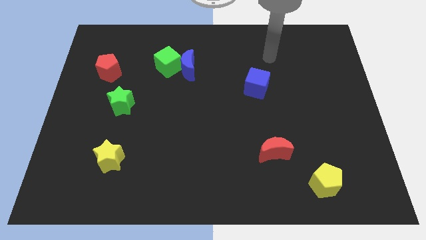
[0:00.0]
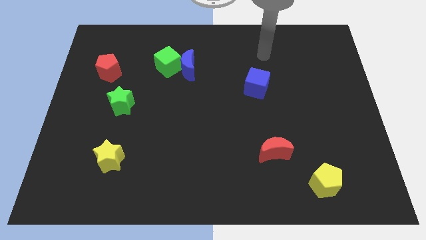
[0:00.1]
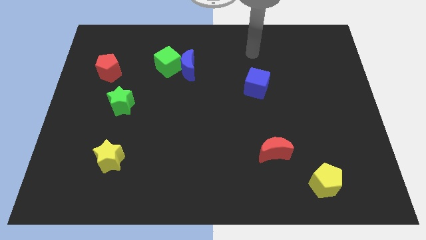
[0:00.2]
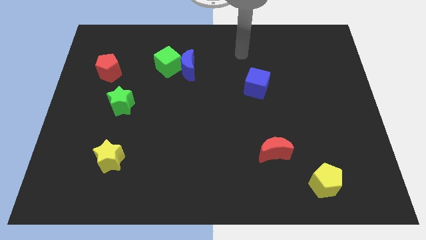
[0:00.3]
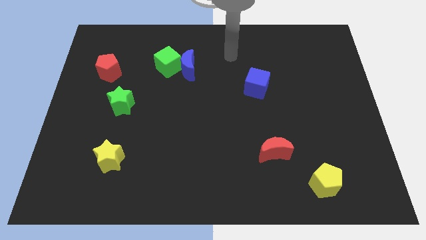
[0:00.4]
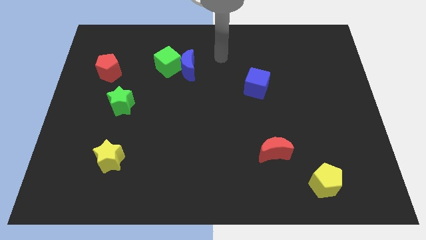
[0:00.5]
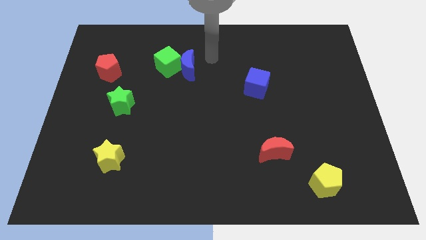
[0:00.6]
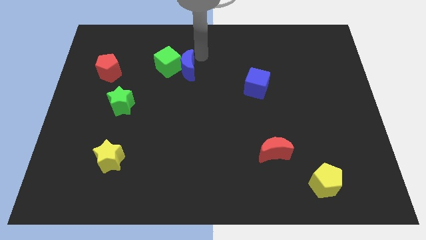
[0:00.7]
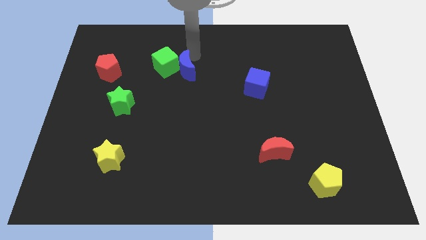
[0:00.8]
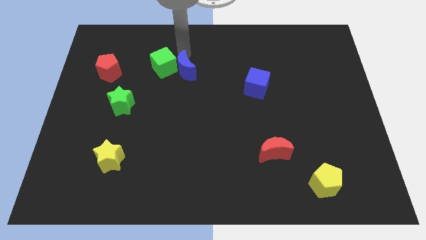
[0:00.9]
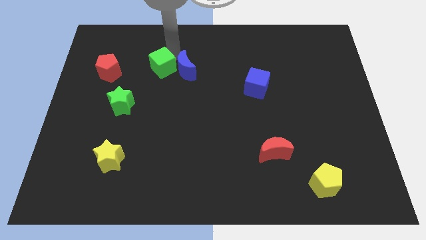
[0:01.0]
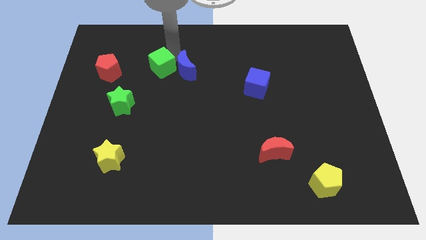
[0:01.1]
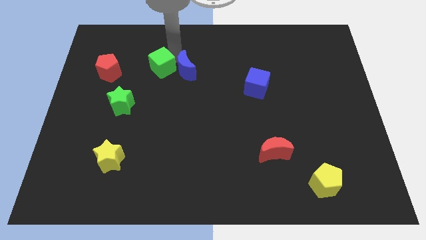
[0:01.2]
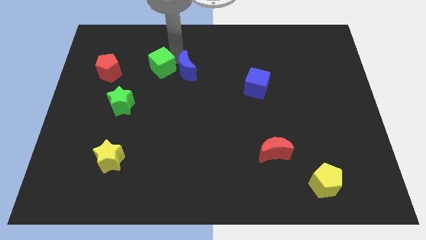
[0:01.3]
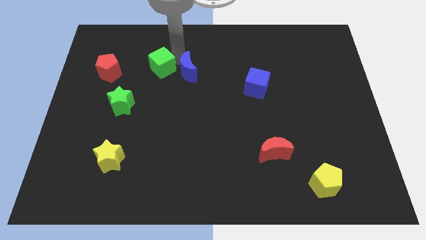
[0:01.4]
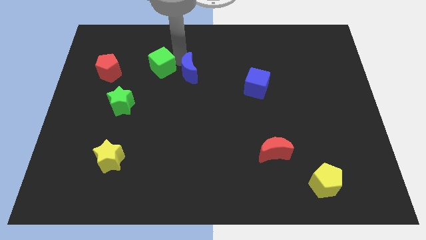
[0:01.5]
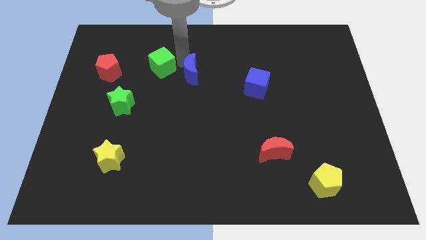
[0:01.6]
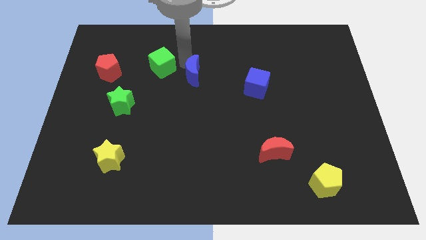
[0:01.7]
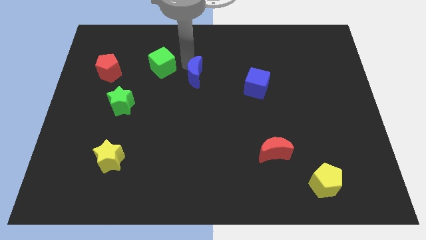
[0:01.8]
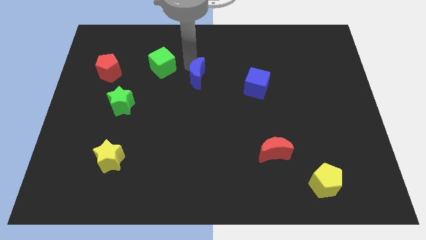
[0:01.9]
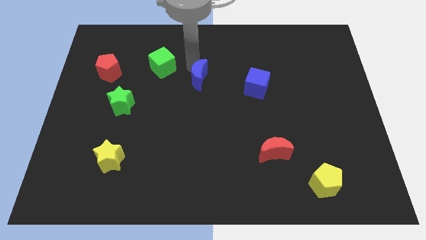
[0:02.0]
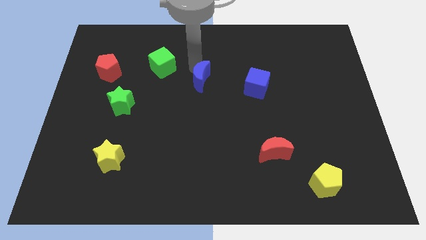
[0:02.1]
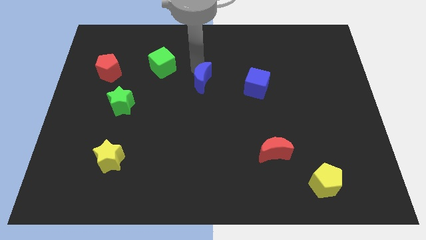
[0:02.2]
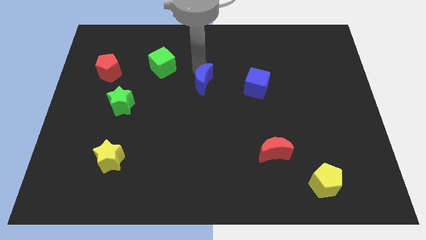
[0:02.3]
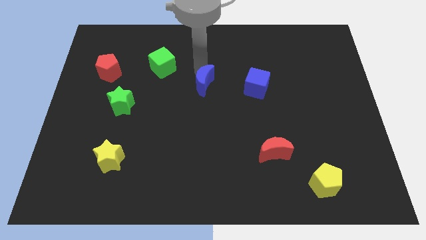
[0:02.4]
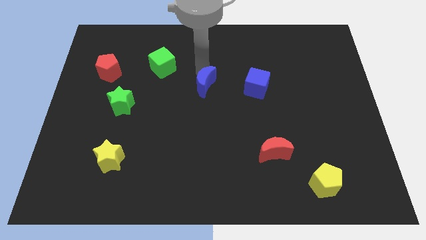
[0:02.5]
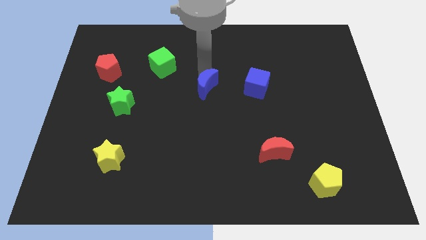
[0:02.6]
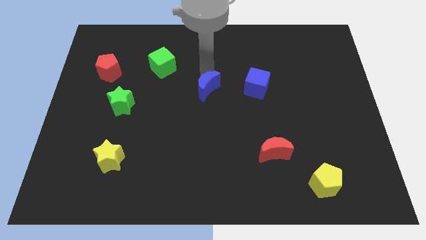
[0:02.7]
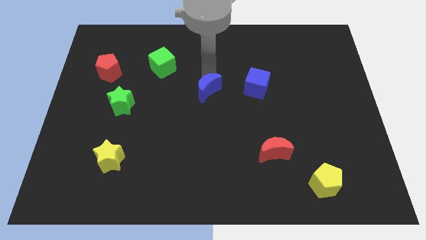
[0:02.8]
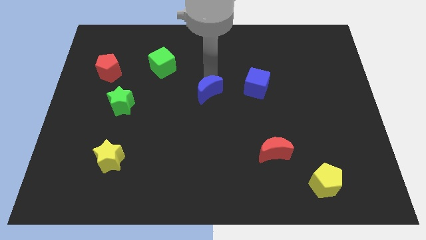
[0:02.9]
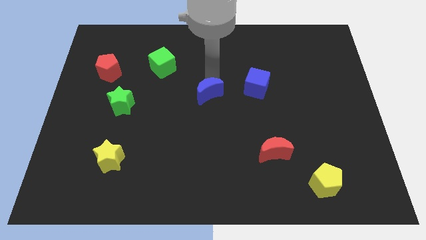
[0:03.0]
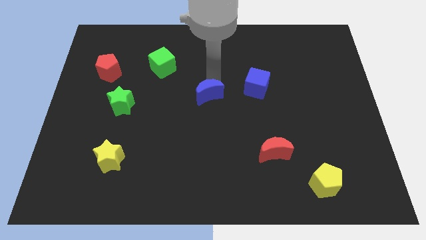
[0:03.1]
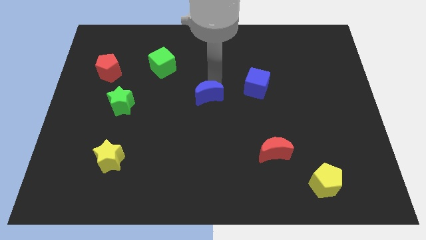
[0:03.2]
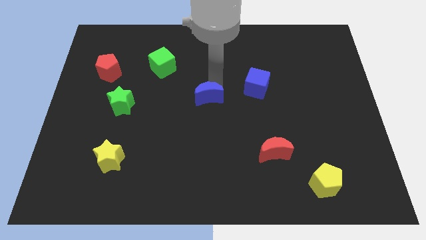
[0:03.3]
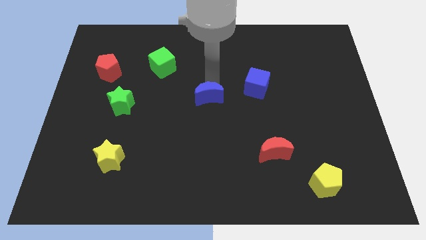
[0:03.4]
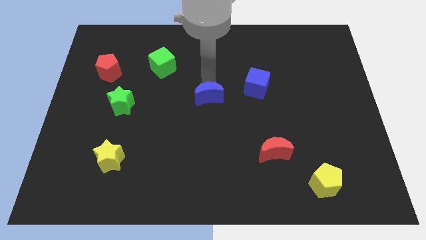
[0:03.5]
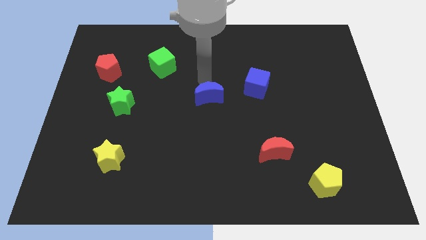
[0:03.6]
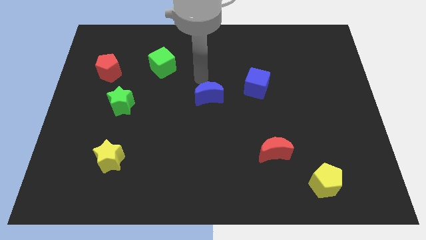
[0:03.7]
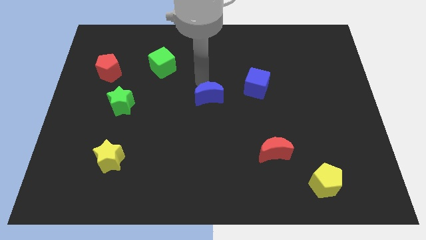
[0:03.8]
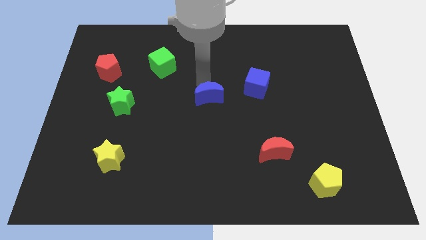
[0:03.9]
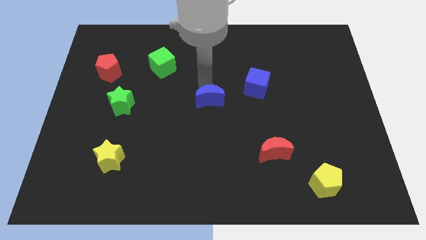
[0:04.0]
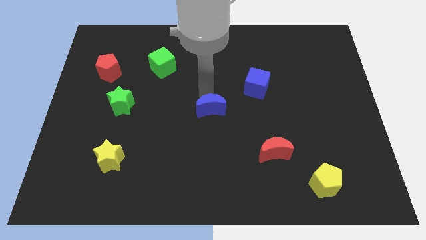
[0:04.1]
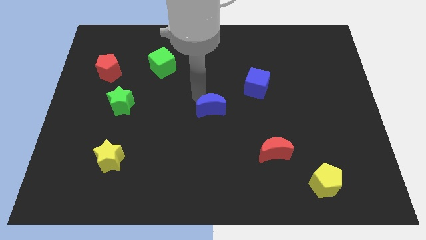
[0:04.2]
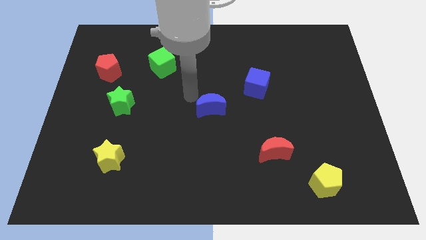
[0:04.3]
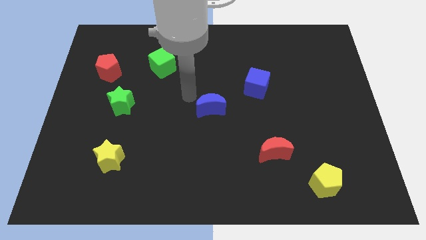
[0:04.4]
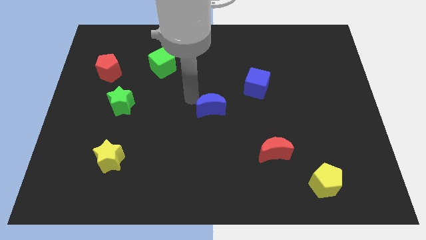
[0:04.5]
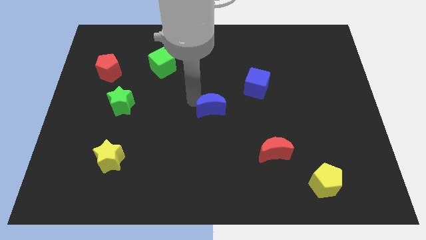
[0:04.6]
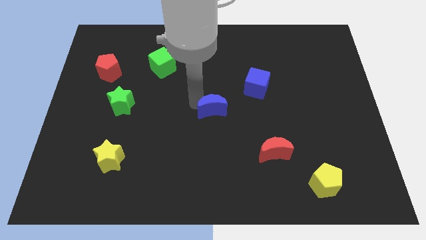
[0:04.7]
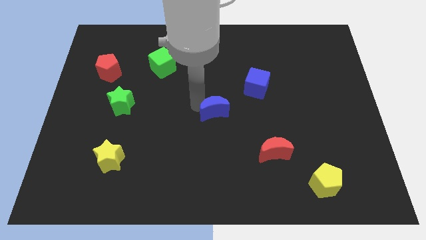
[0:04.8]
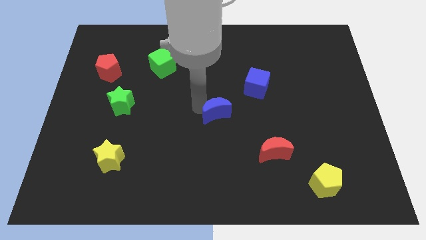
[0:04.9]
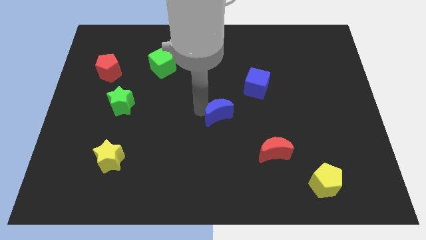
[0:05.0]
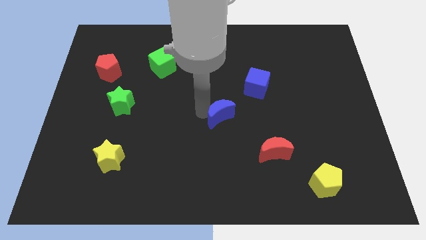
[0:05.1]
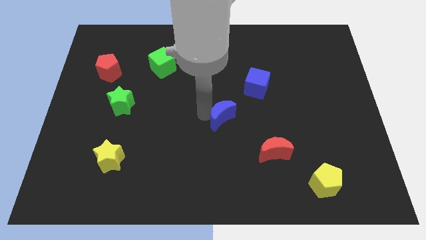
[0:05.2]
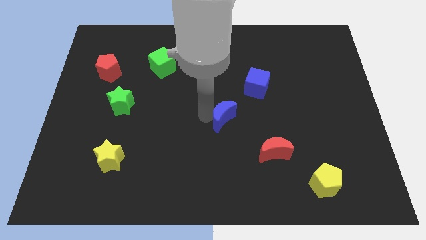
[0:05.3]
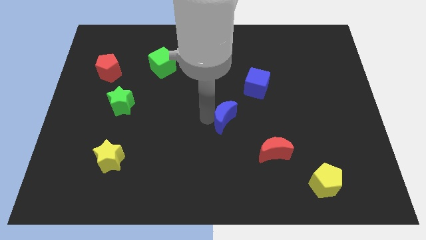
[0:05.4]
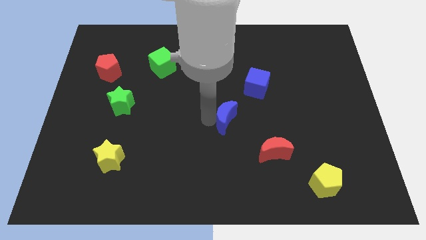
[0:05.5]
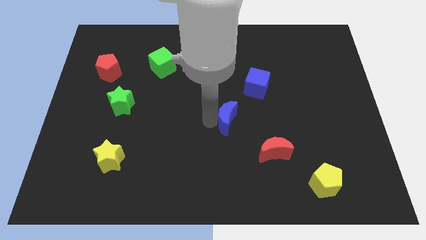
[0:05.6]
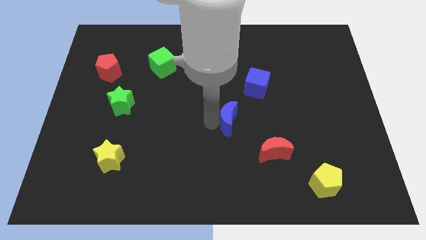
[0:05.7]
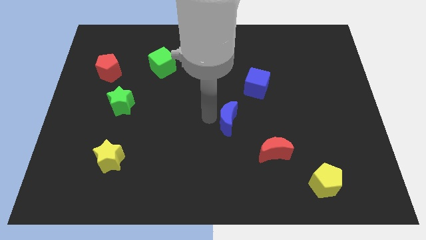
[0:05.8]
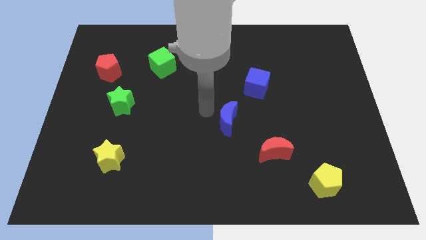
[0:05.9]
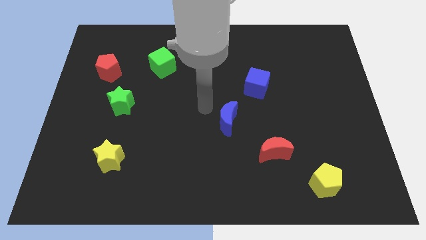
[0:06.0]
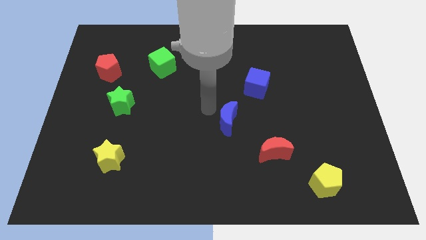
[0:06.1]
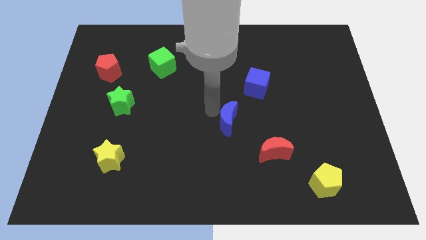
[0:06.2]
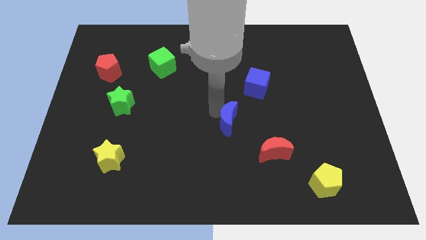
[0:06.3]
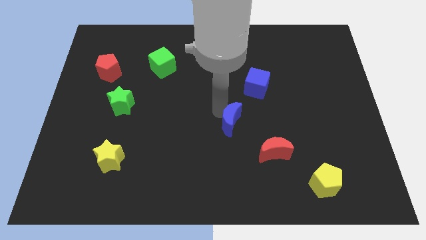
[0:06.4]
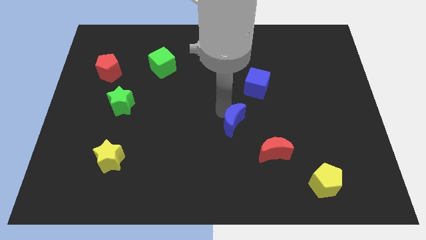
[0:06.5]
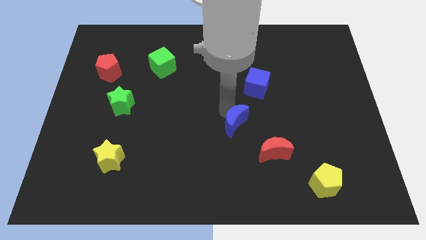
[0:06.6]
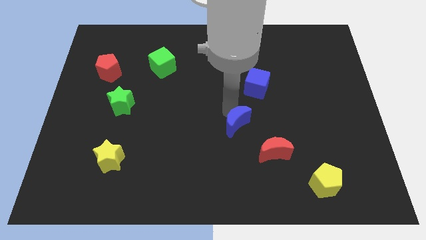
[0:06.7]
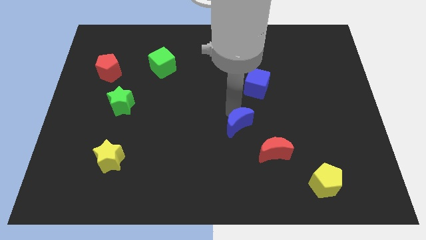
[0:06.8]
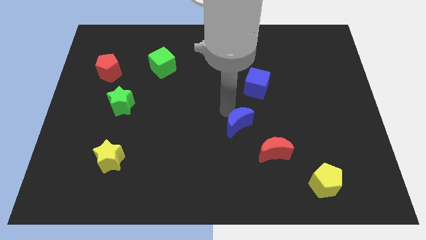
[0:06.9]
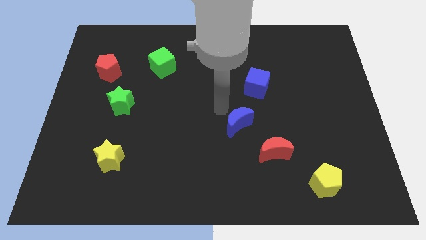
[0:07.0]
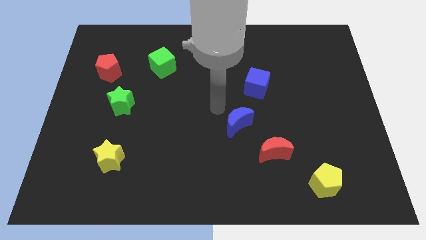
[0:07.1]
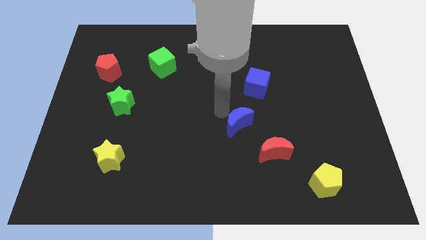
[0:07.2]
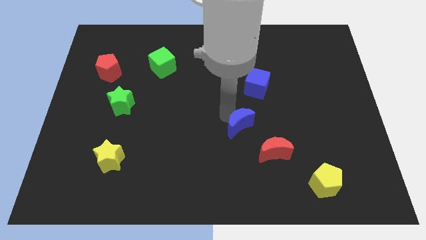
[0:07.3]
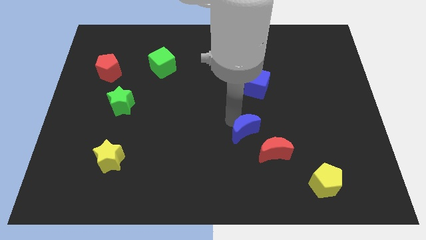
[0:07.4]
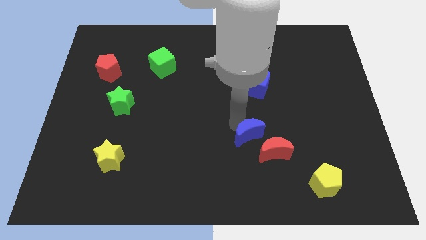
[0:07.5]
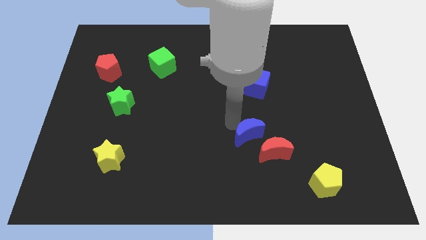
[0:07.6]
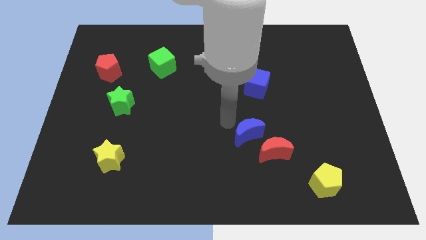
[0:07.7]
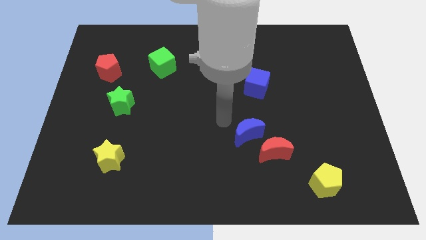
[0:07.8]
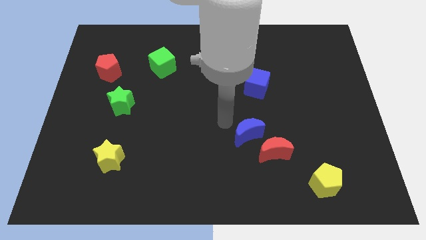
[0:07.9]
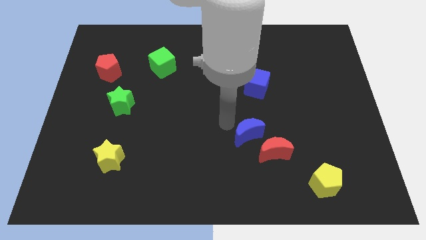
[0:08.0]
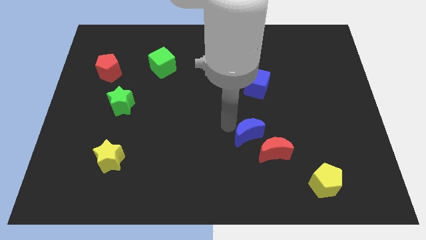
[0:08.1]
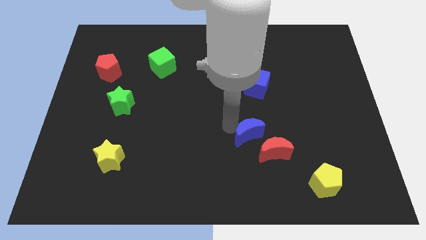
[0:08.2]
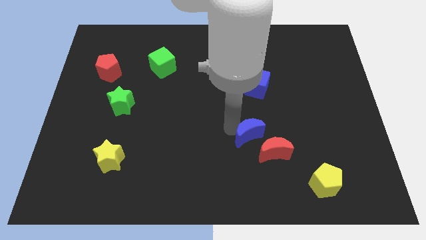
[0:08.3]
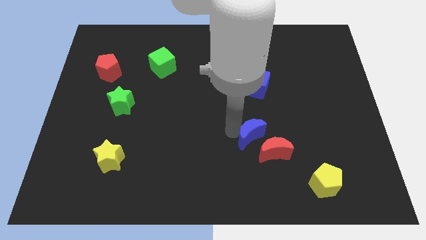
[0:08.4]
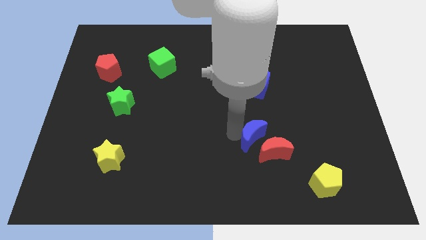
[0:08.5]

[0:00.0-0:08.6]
move the blue moon next to the red moon
